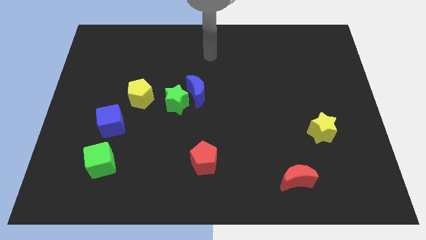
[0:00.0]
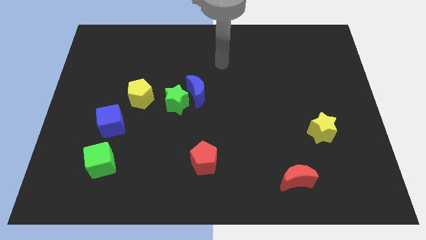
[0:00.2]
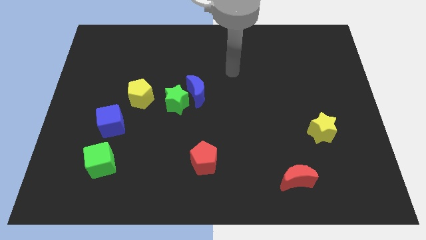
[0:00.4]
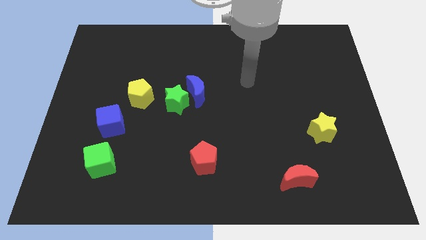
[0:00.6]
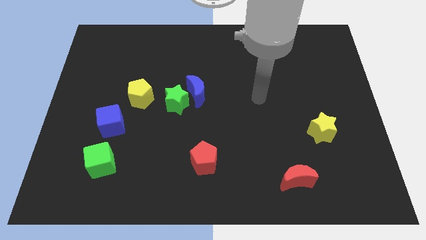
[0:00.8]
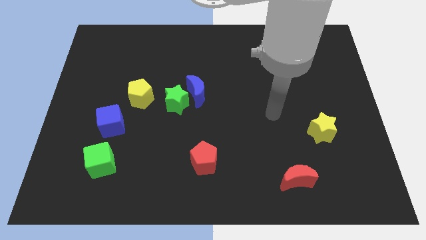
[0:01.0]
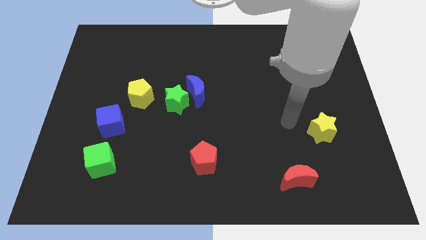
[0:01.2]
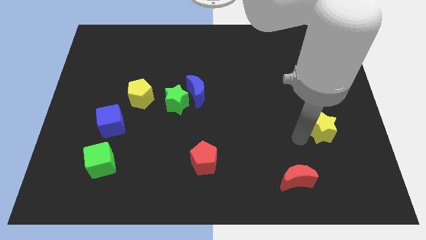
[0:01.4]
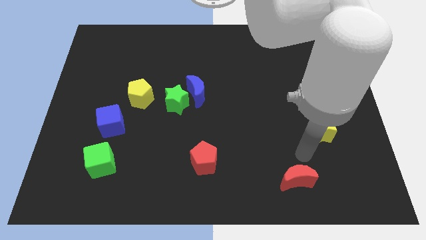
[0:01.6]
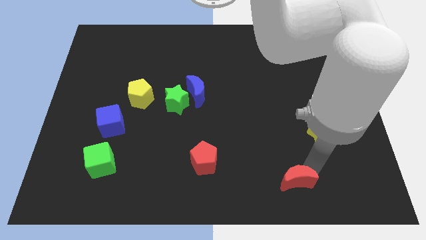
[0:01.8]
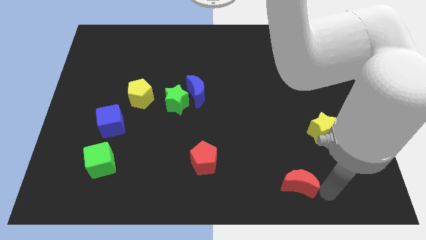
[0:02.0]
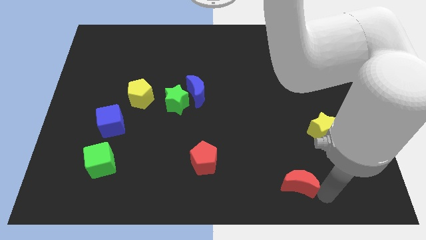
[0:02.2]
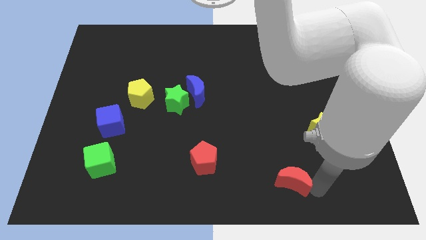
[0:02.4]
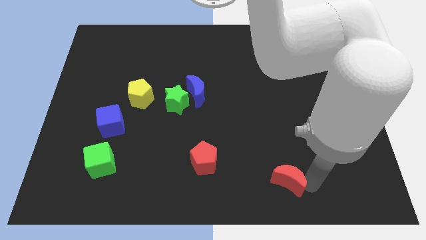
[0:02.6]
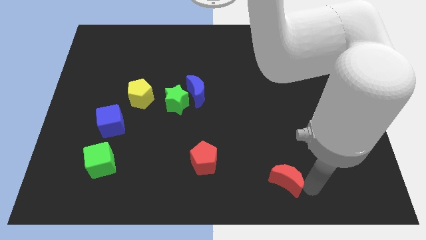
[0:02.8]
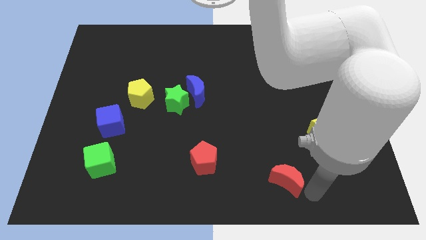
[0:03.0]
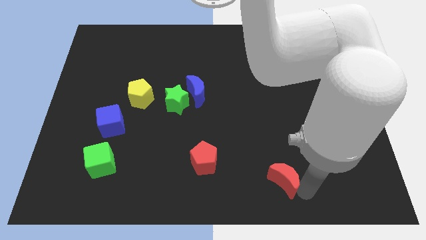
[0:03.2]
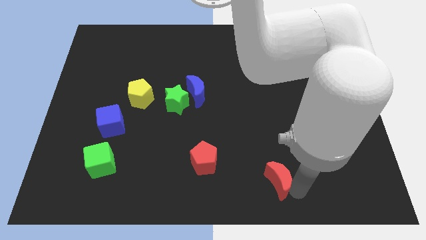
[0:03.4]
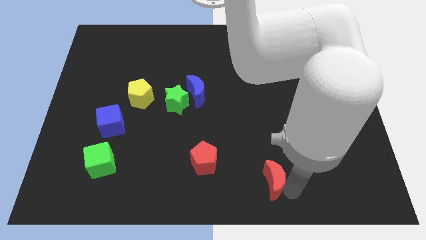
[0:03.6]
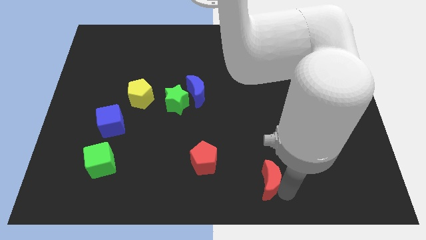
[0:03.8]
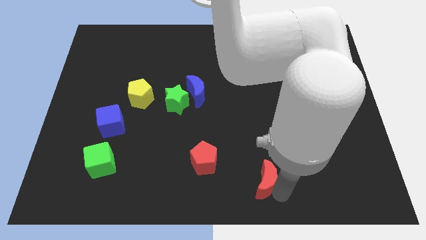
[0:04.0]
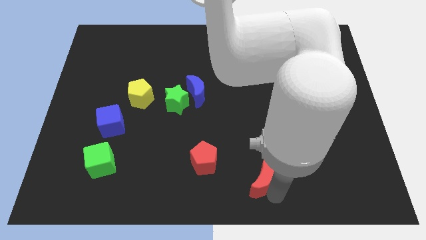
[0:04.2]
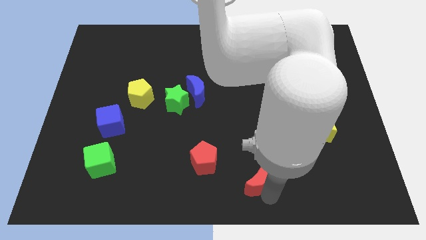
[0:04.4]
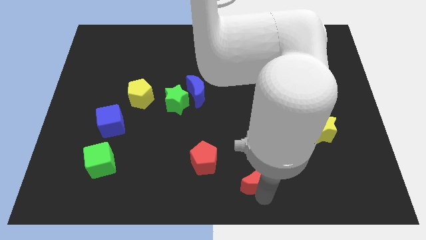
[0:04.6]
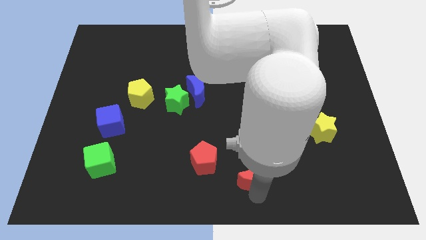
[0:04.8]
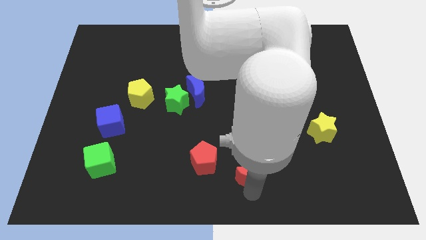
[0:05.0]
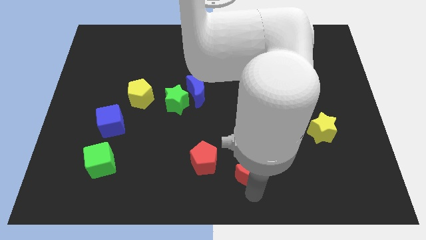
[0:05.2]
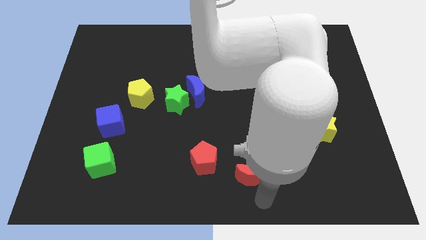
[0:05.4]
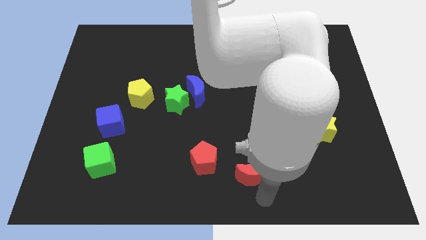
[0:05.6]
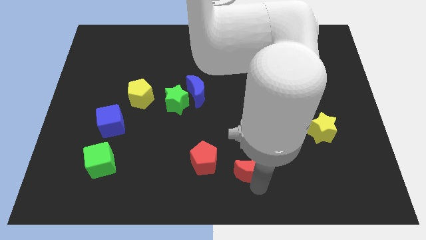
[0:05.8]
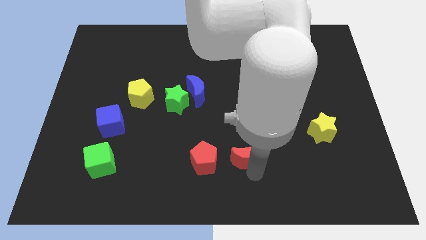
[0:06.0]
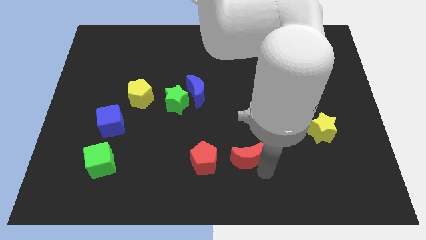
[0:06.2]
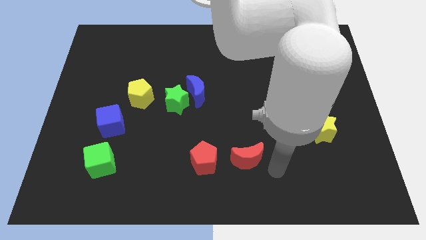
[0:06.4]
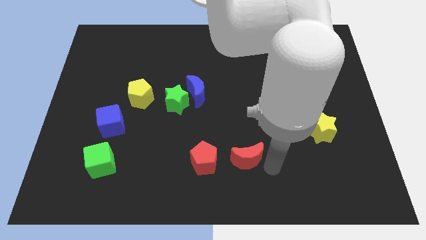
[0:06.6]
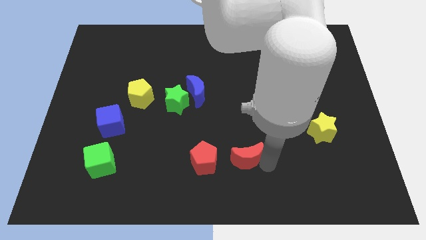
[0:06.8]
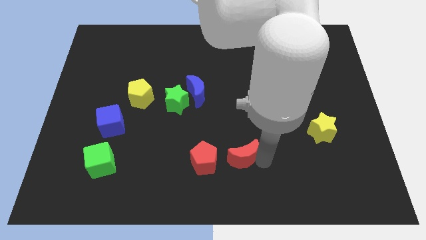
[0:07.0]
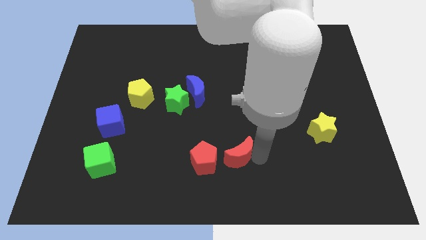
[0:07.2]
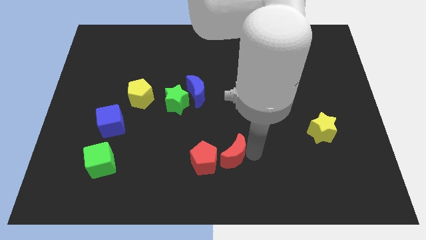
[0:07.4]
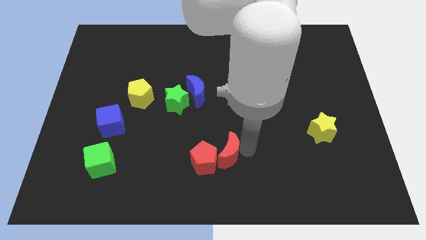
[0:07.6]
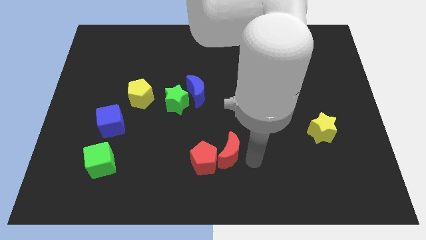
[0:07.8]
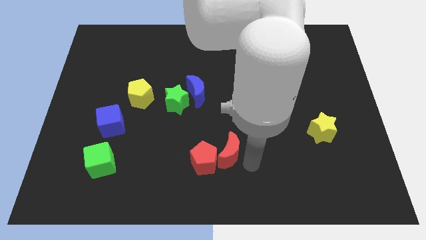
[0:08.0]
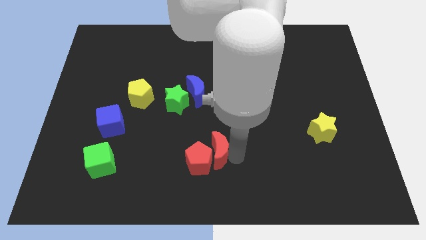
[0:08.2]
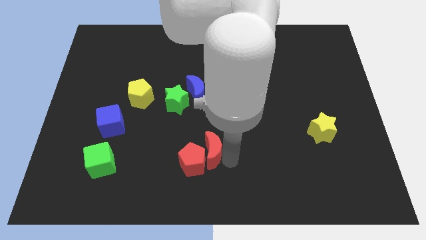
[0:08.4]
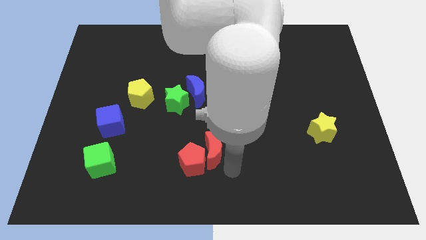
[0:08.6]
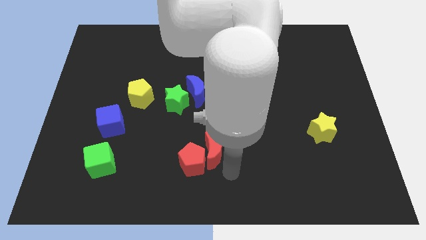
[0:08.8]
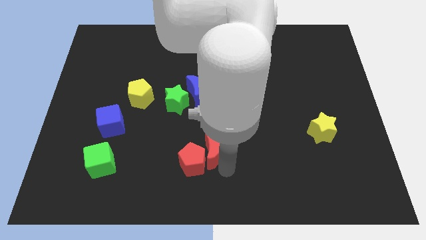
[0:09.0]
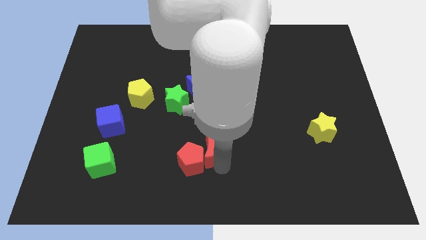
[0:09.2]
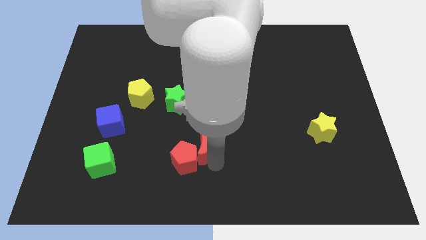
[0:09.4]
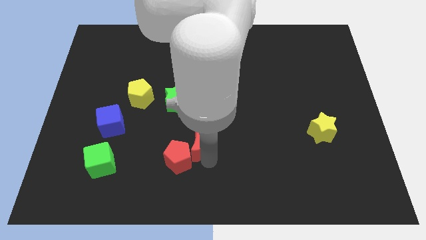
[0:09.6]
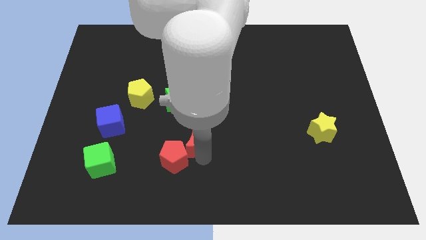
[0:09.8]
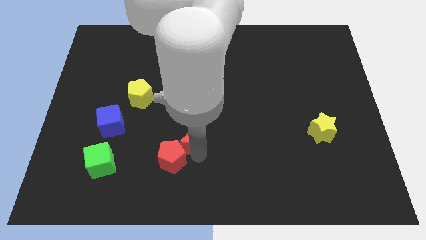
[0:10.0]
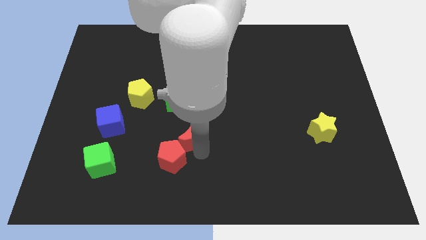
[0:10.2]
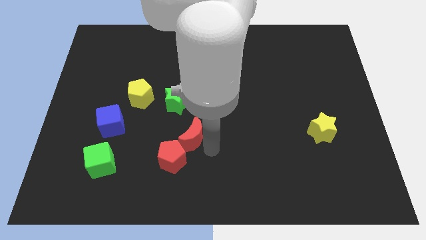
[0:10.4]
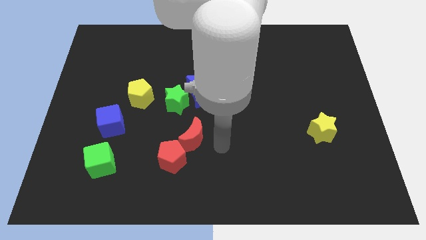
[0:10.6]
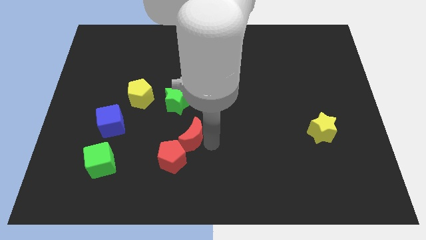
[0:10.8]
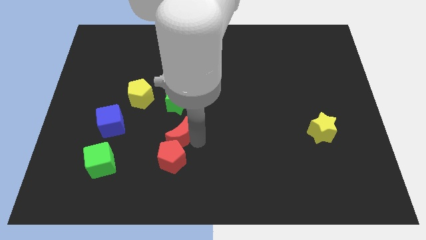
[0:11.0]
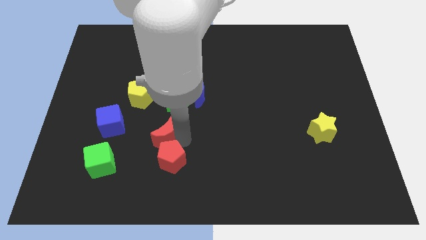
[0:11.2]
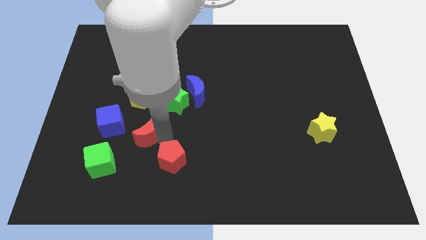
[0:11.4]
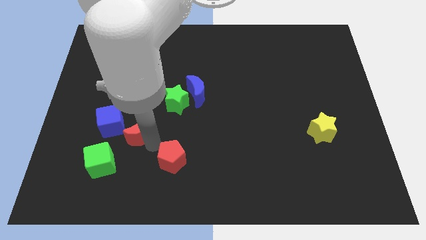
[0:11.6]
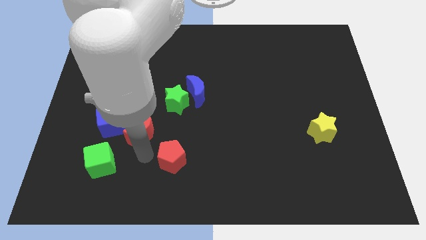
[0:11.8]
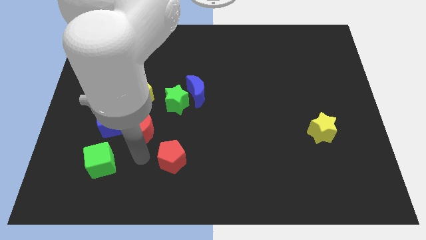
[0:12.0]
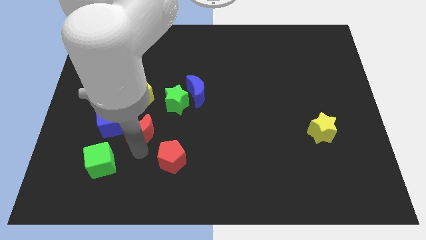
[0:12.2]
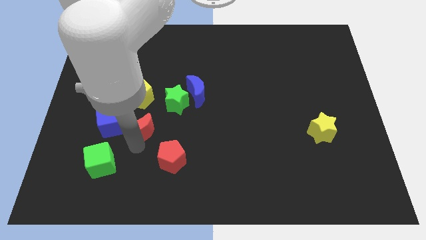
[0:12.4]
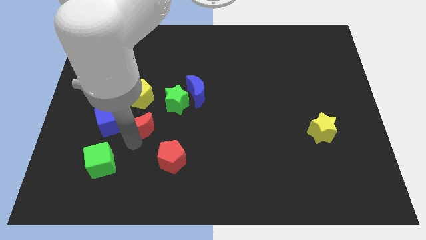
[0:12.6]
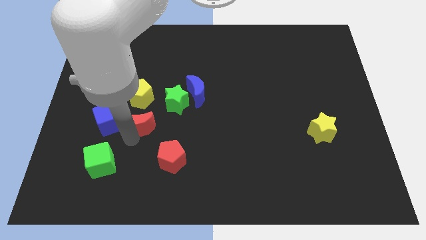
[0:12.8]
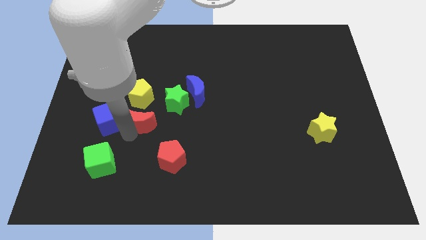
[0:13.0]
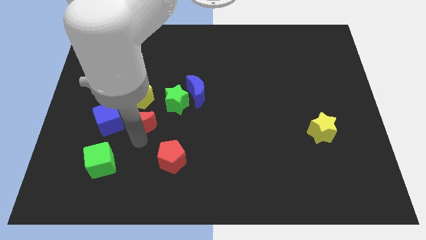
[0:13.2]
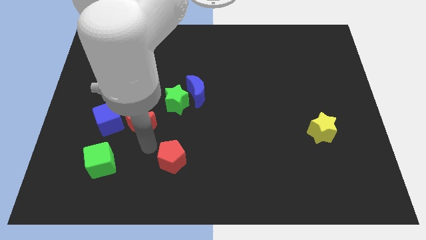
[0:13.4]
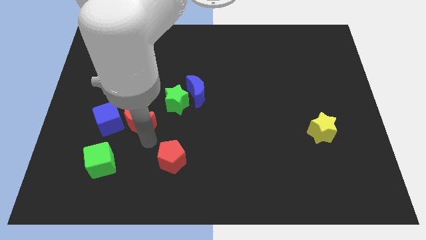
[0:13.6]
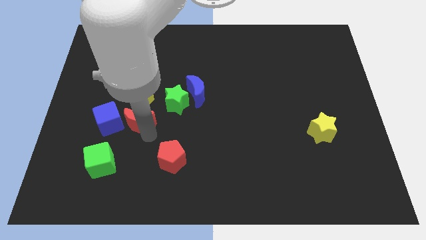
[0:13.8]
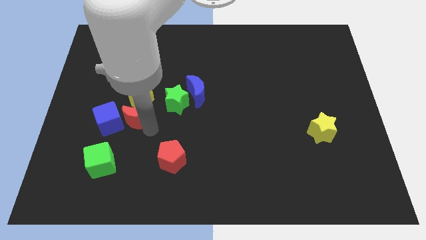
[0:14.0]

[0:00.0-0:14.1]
push the red moon left of the green star

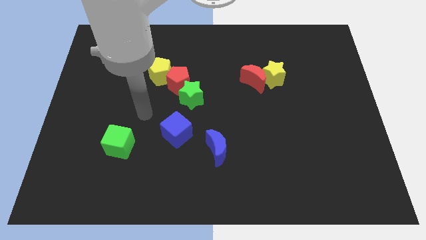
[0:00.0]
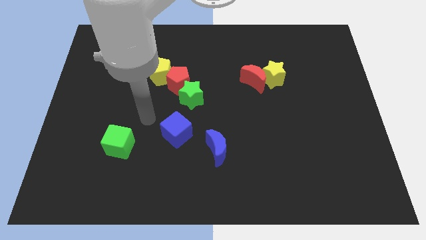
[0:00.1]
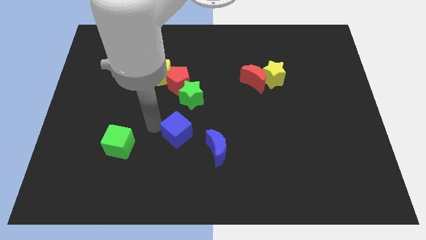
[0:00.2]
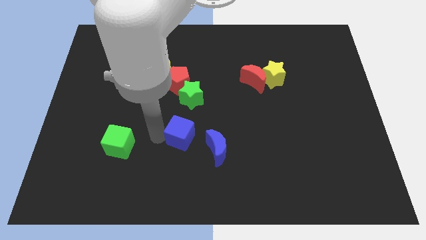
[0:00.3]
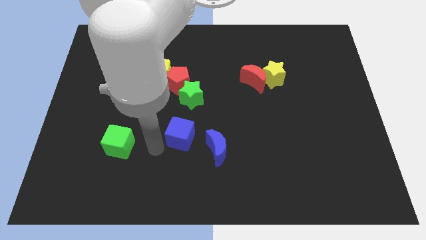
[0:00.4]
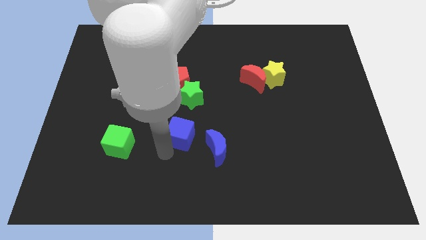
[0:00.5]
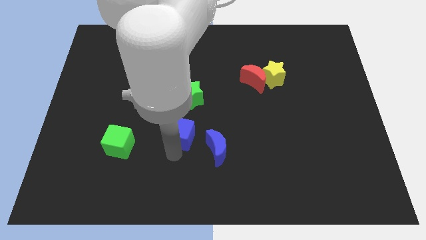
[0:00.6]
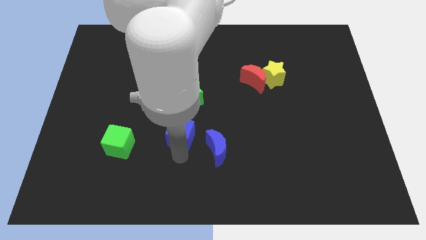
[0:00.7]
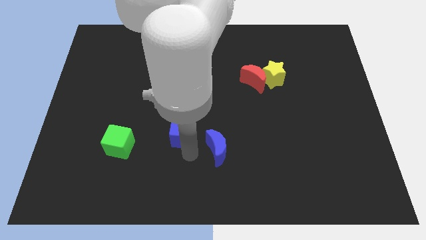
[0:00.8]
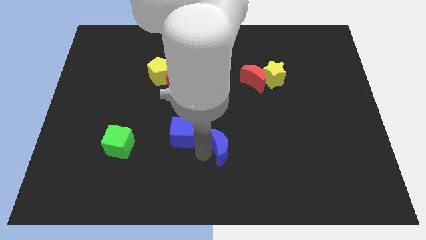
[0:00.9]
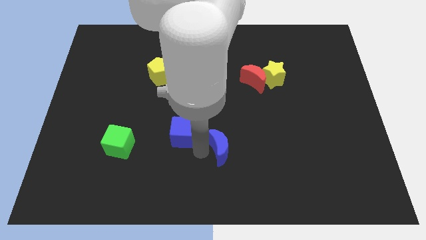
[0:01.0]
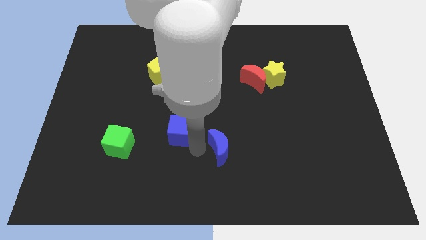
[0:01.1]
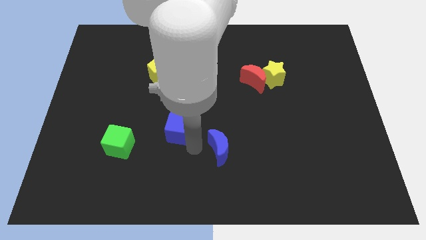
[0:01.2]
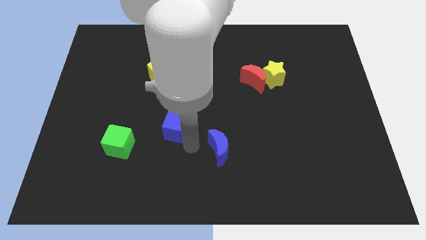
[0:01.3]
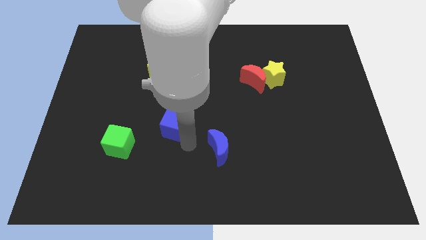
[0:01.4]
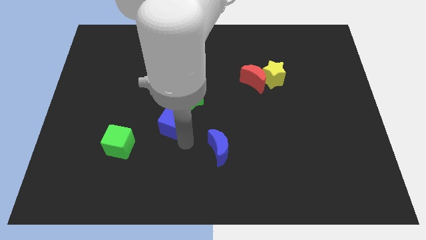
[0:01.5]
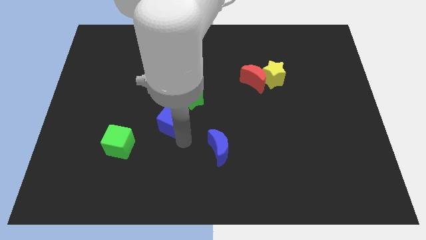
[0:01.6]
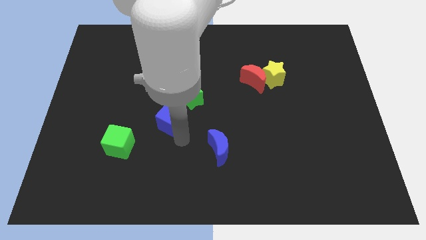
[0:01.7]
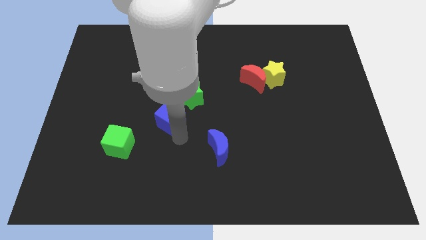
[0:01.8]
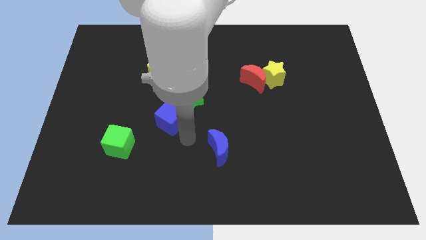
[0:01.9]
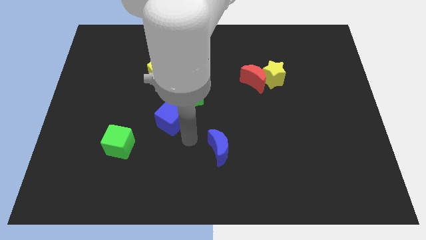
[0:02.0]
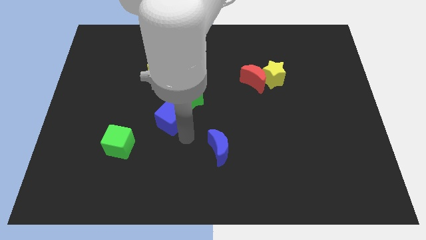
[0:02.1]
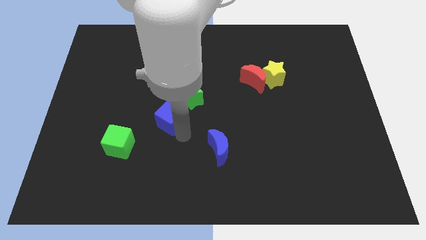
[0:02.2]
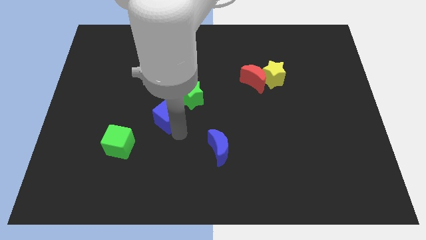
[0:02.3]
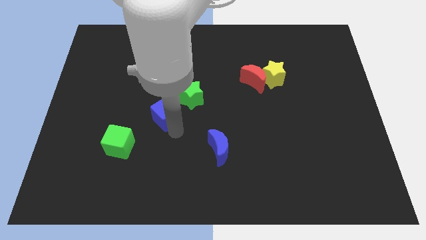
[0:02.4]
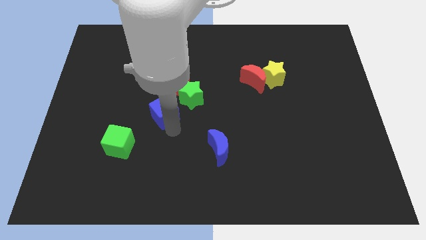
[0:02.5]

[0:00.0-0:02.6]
push the blue cube just left of the green star
